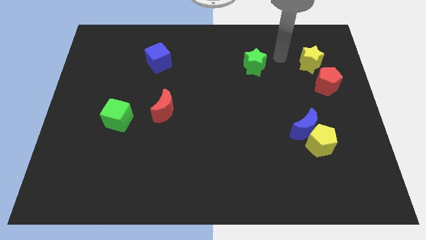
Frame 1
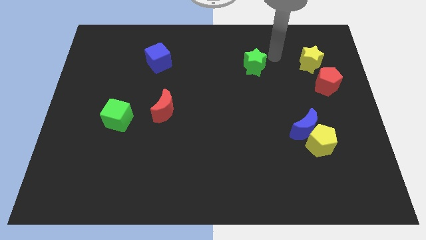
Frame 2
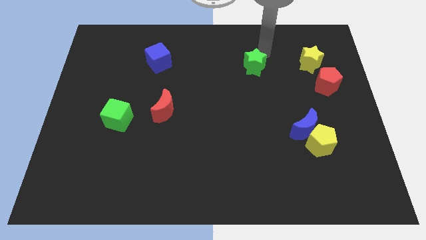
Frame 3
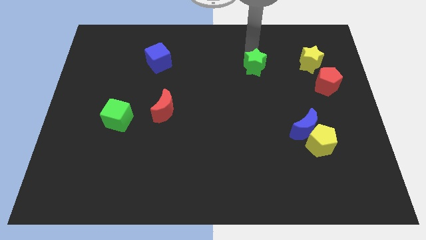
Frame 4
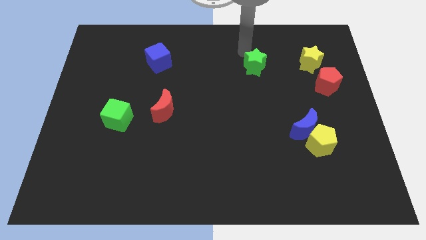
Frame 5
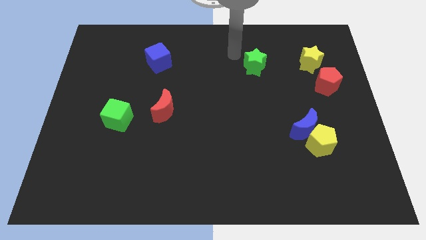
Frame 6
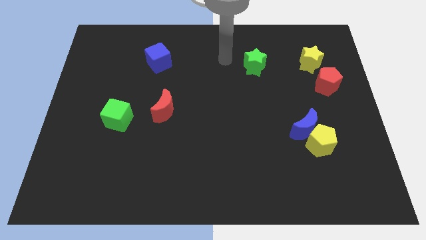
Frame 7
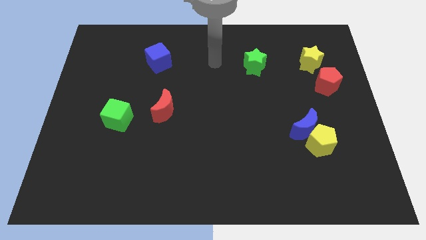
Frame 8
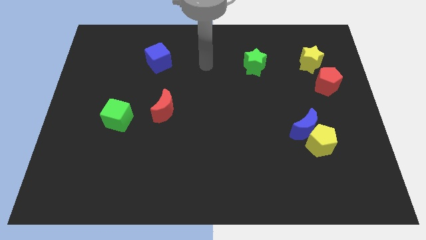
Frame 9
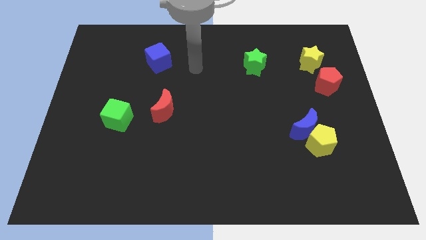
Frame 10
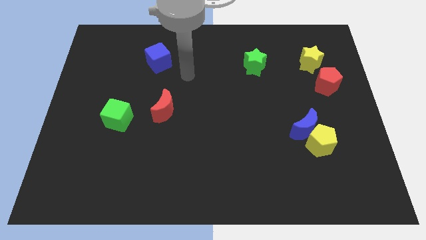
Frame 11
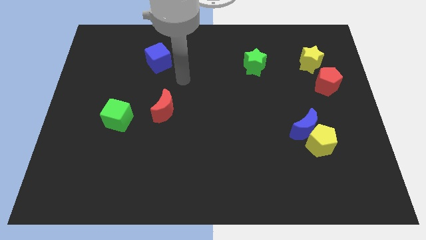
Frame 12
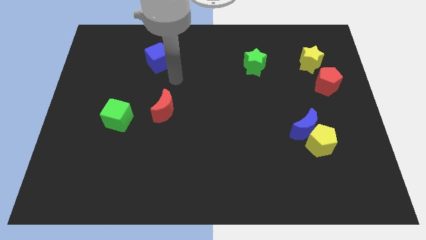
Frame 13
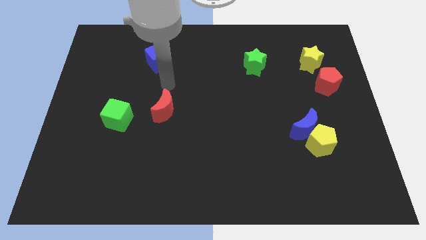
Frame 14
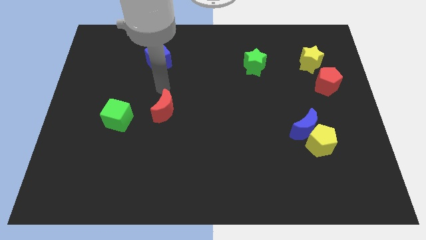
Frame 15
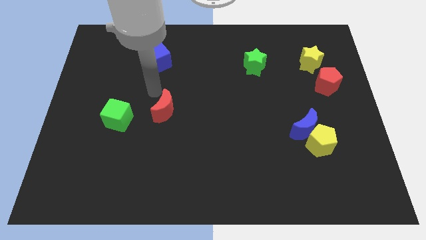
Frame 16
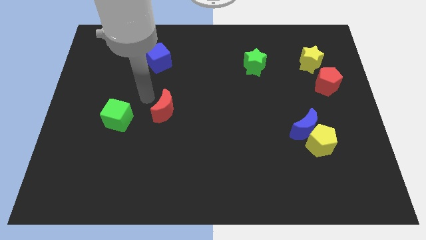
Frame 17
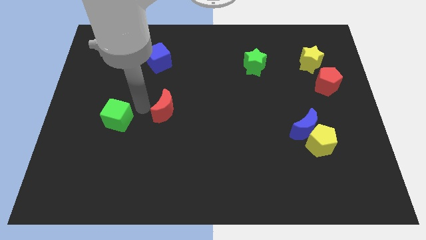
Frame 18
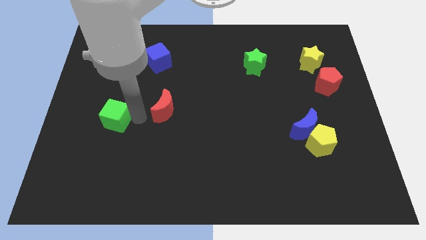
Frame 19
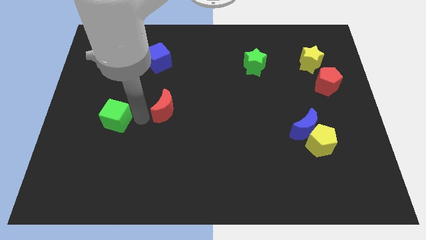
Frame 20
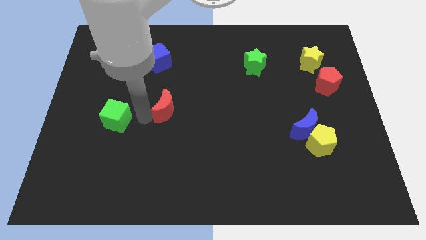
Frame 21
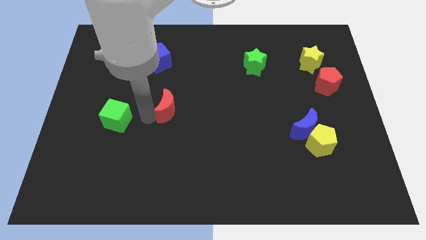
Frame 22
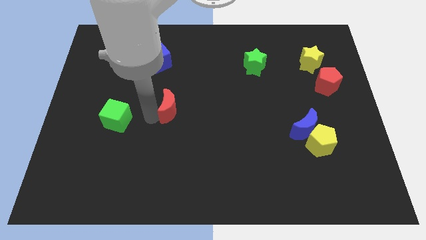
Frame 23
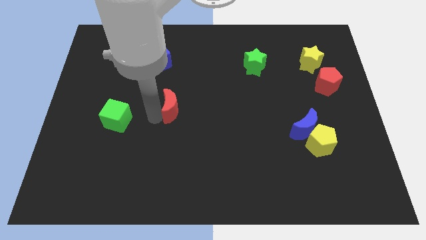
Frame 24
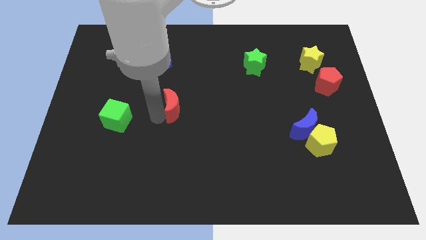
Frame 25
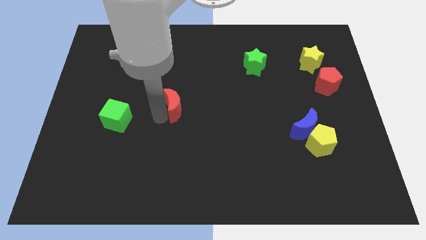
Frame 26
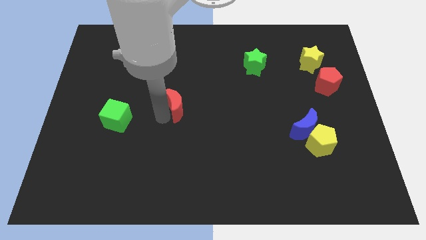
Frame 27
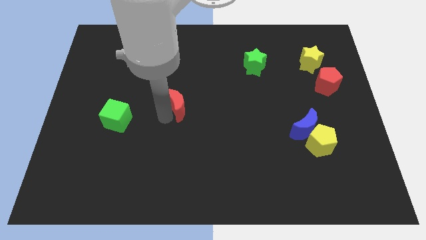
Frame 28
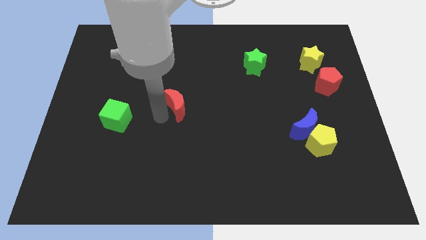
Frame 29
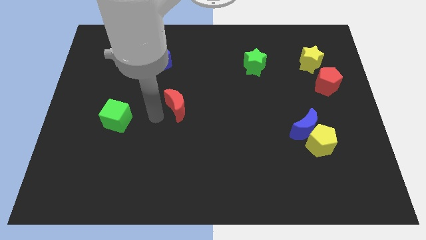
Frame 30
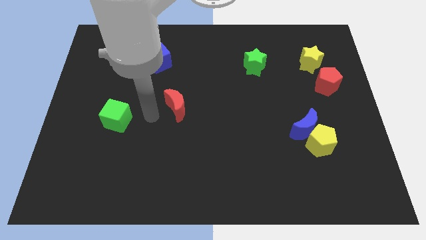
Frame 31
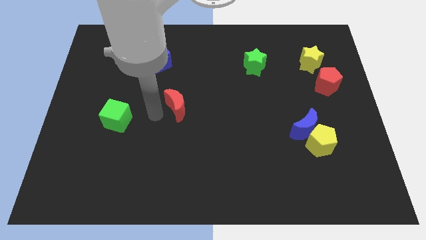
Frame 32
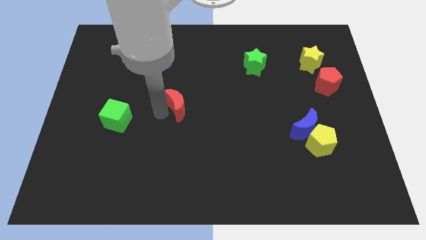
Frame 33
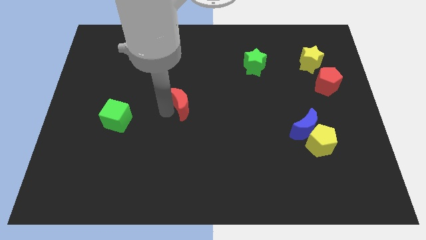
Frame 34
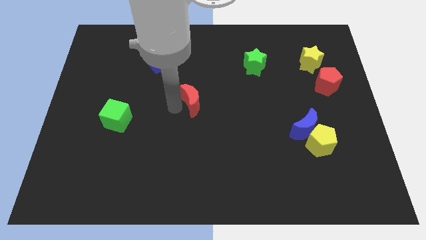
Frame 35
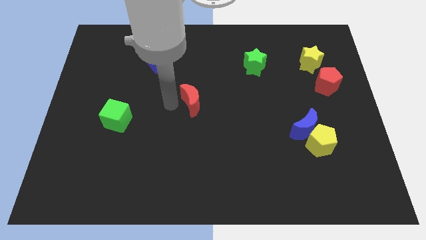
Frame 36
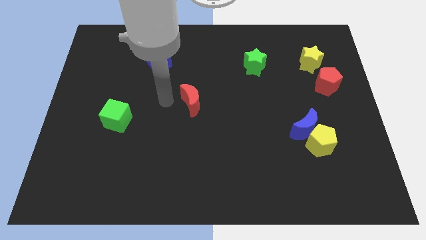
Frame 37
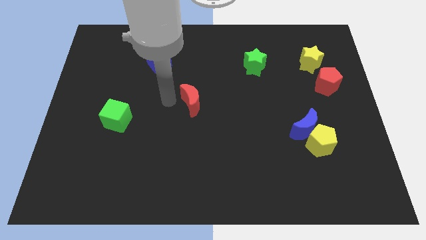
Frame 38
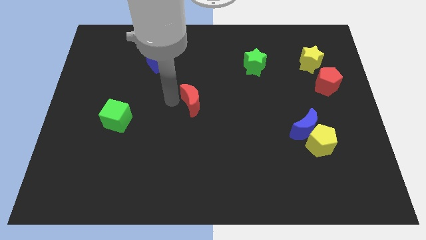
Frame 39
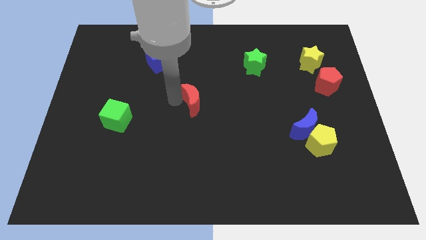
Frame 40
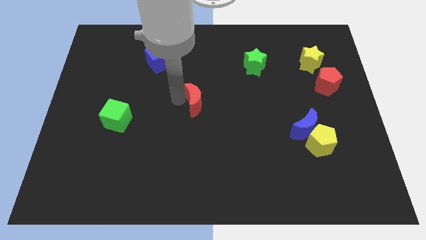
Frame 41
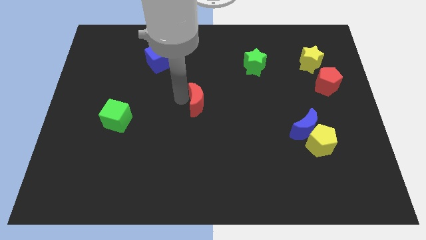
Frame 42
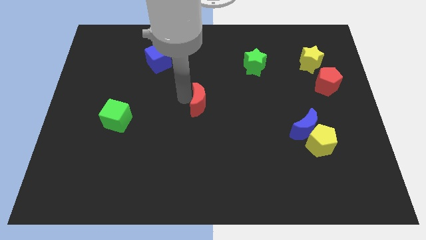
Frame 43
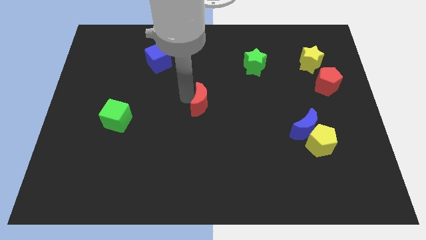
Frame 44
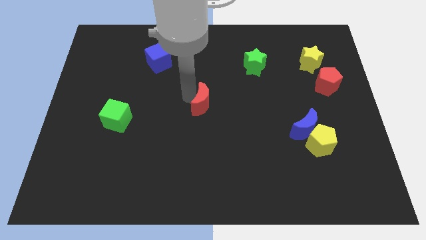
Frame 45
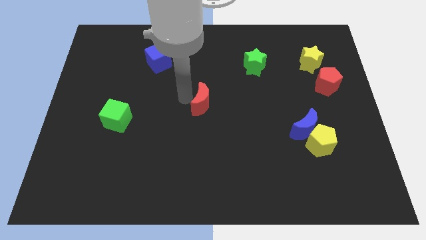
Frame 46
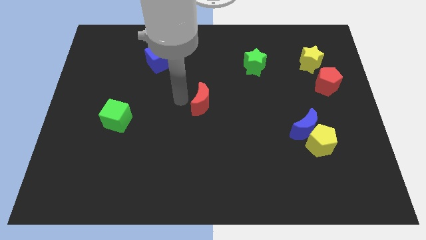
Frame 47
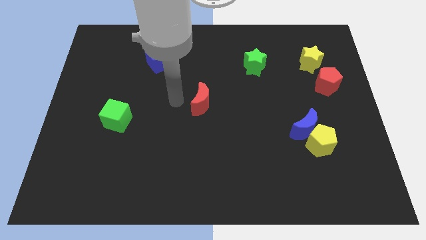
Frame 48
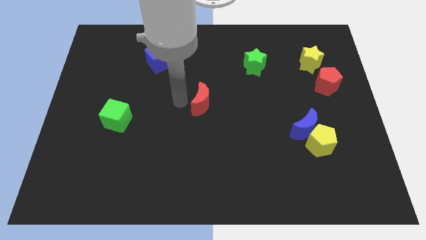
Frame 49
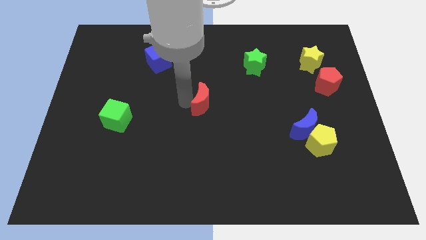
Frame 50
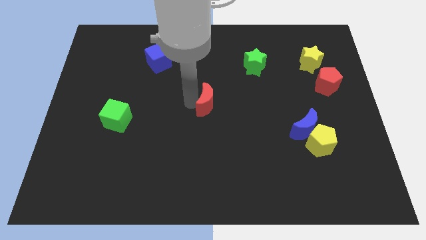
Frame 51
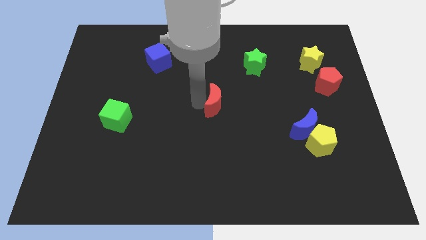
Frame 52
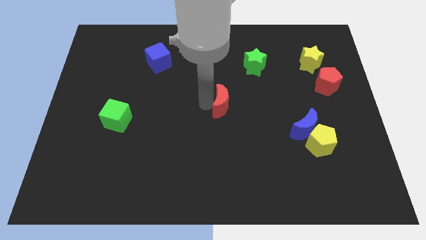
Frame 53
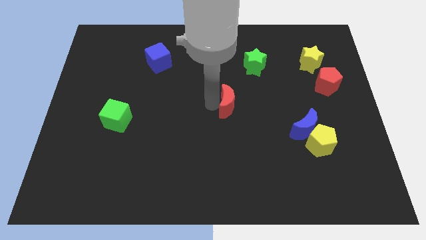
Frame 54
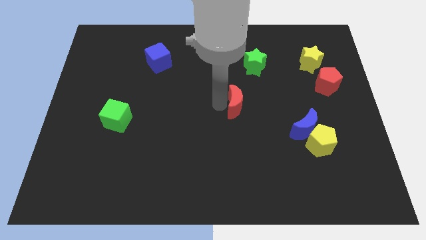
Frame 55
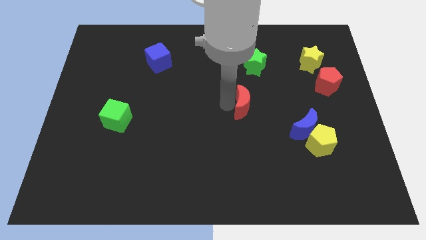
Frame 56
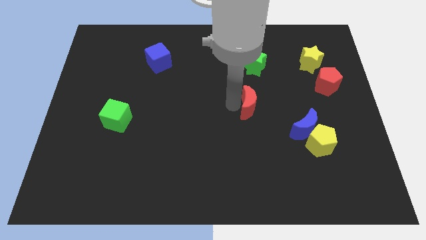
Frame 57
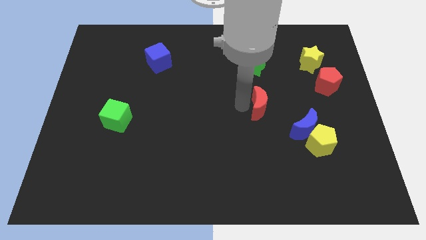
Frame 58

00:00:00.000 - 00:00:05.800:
slide the red moon right

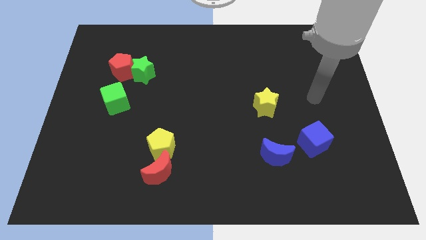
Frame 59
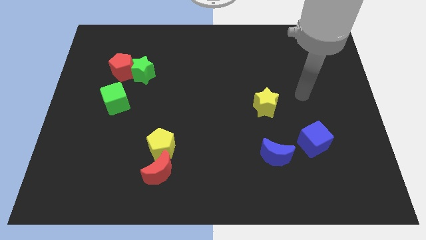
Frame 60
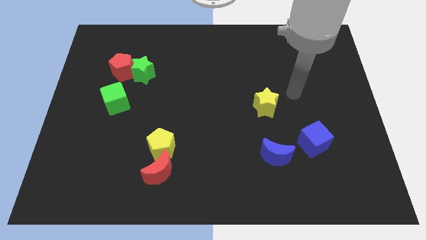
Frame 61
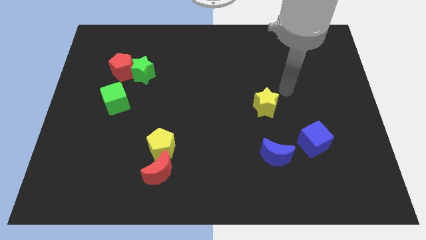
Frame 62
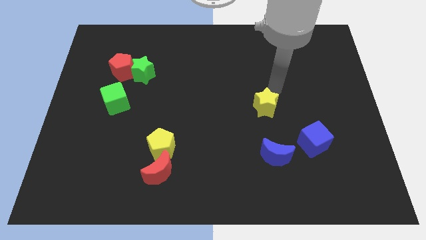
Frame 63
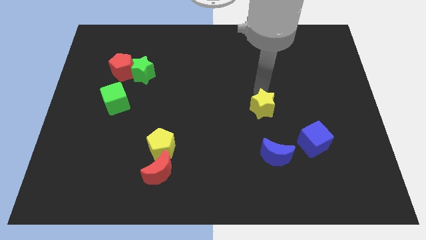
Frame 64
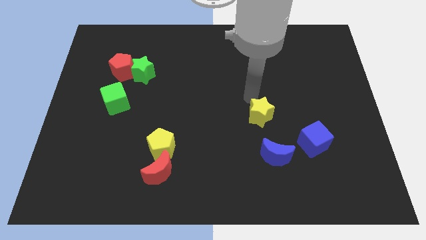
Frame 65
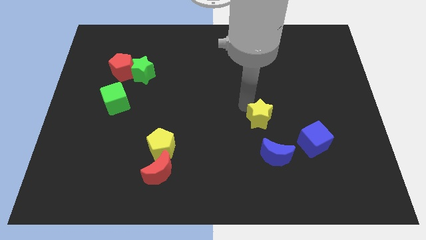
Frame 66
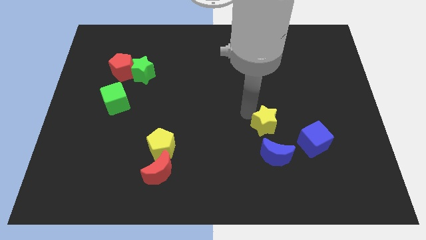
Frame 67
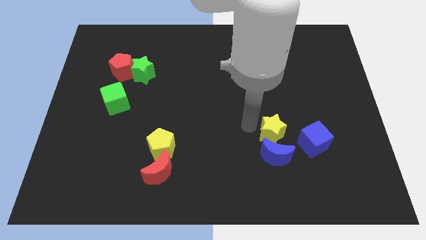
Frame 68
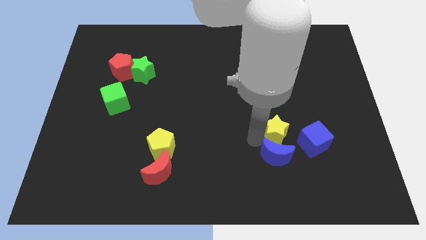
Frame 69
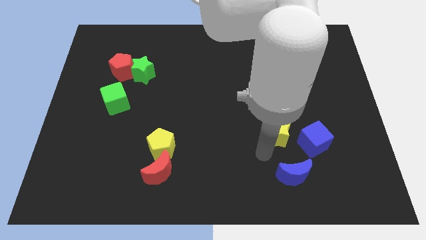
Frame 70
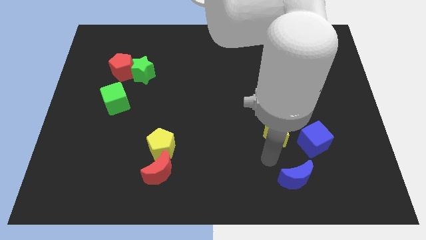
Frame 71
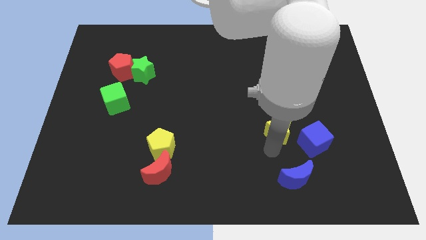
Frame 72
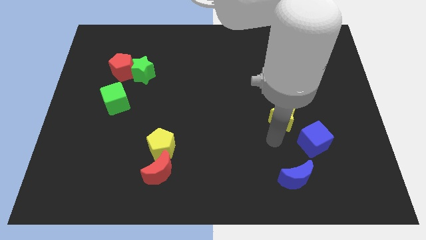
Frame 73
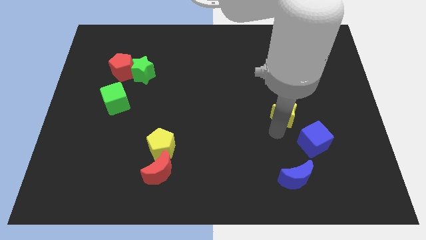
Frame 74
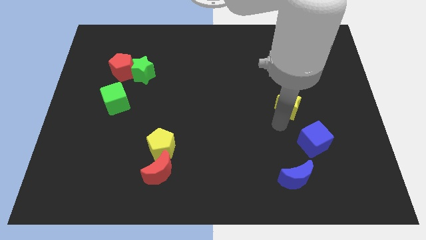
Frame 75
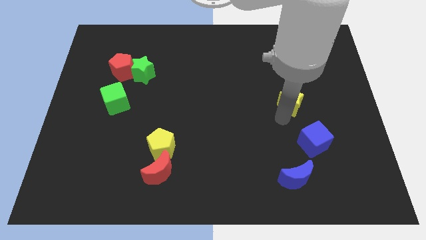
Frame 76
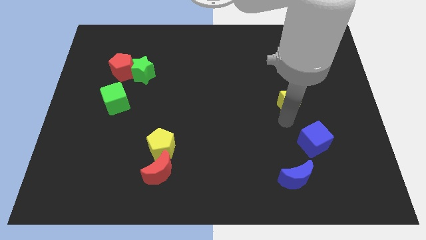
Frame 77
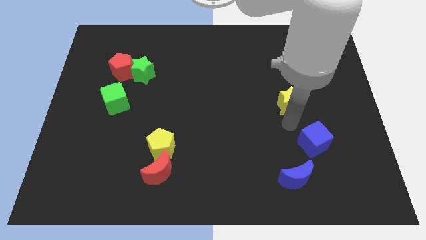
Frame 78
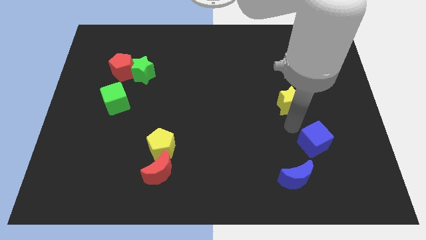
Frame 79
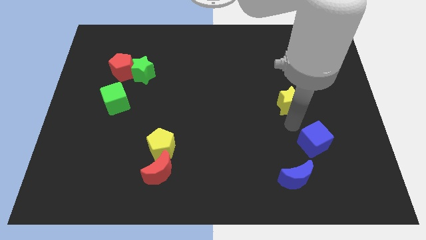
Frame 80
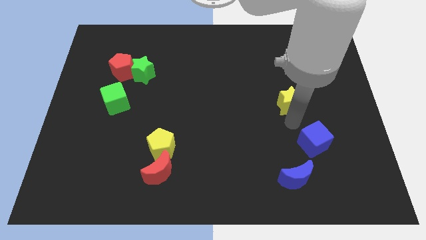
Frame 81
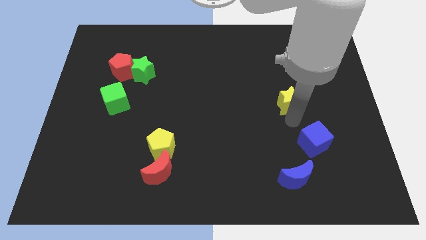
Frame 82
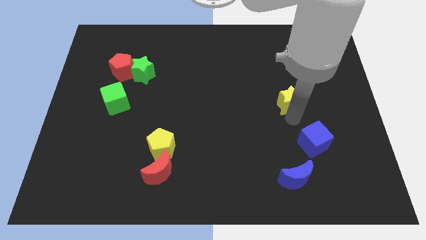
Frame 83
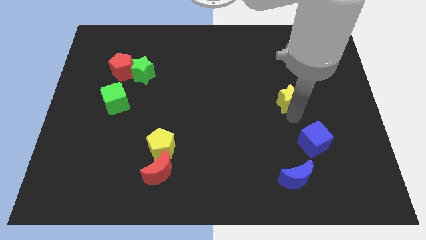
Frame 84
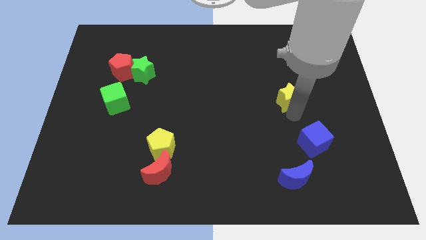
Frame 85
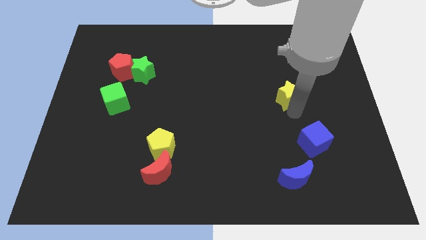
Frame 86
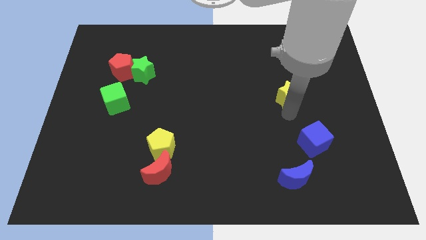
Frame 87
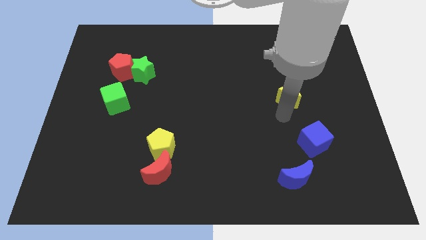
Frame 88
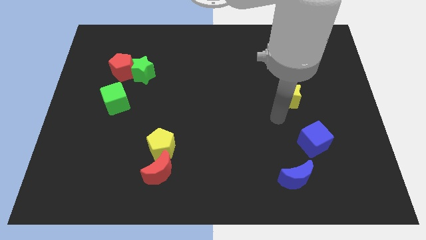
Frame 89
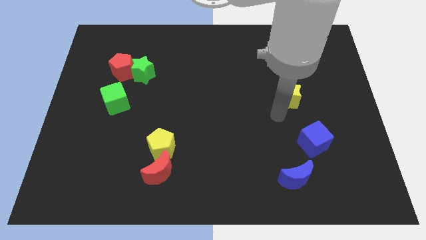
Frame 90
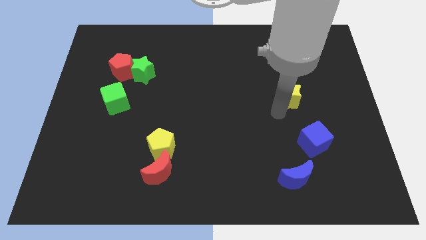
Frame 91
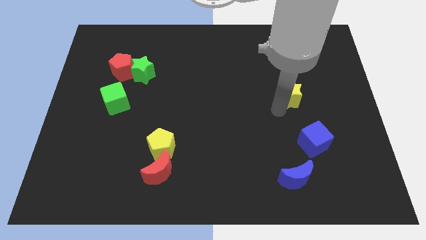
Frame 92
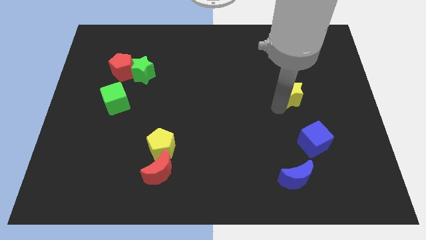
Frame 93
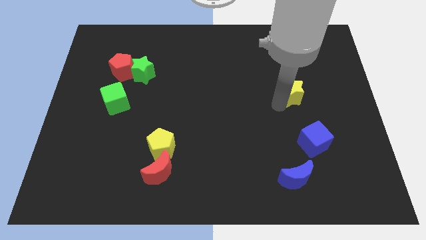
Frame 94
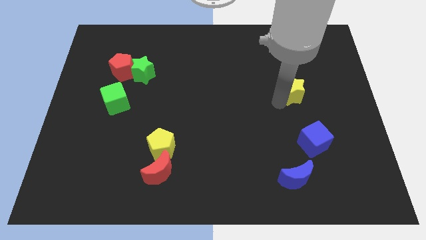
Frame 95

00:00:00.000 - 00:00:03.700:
slightly move the yellow star up and then right
